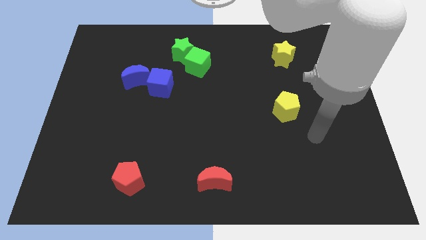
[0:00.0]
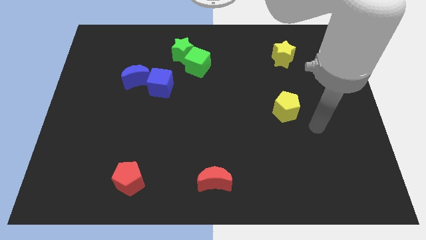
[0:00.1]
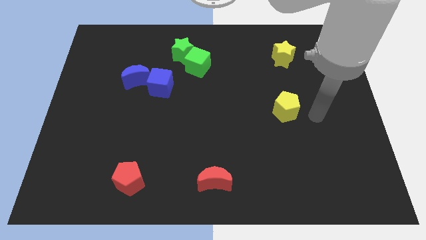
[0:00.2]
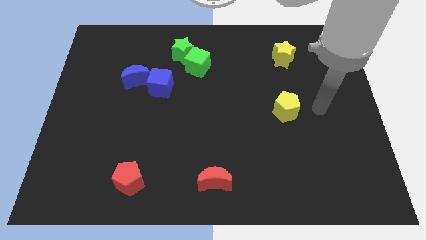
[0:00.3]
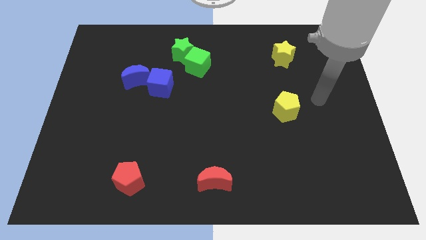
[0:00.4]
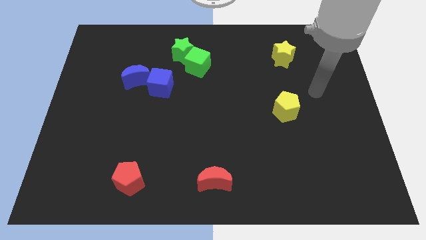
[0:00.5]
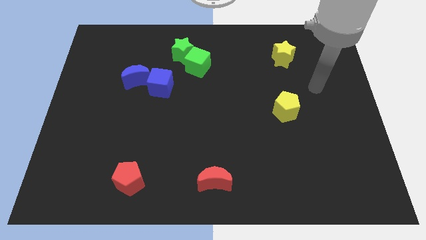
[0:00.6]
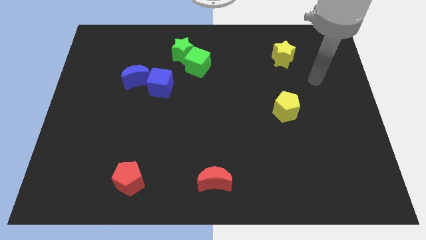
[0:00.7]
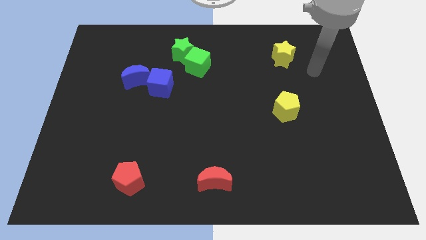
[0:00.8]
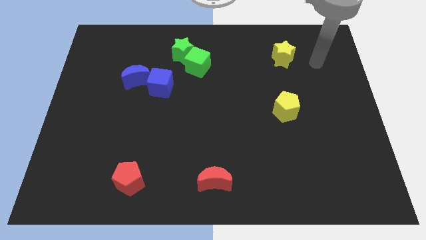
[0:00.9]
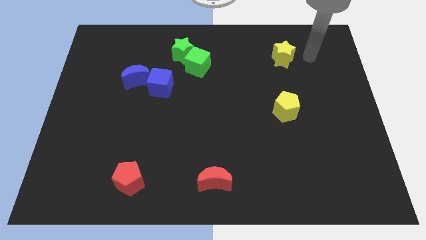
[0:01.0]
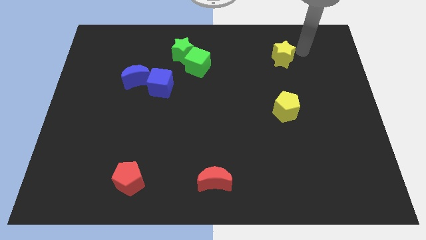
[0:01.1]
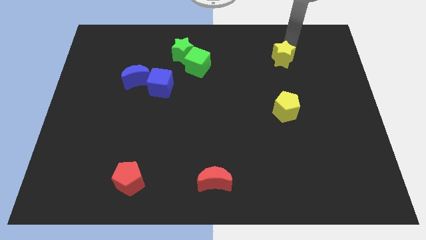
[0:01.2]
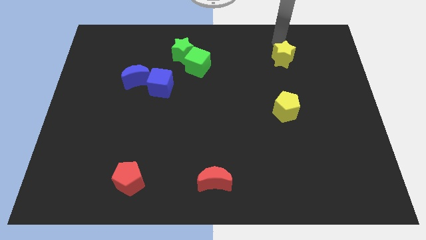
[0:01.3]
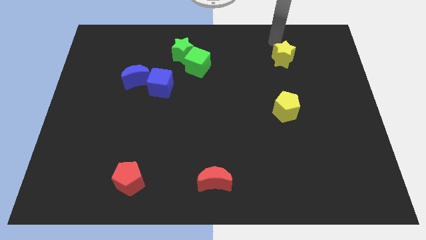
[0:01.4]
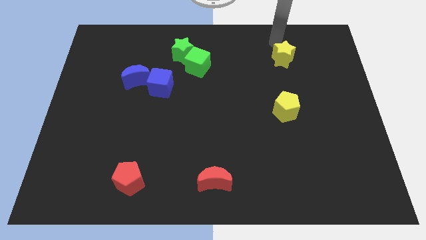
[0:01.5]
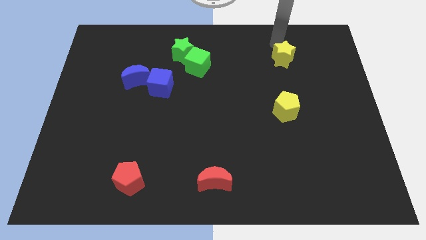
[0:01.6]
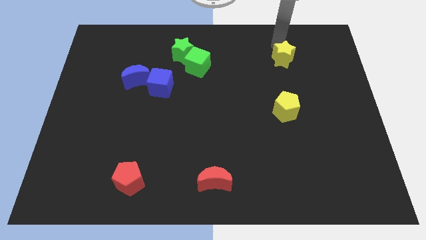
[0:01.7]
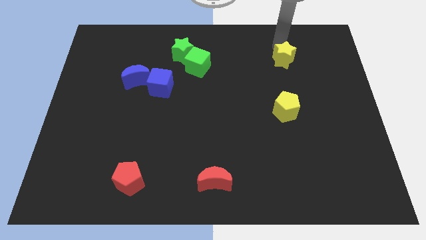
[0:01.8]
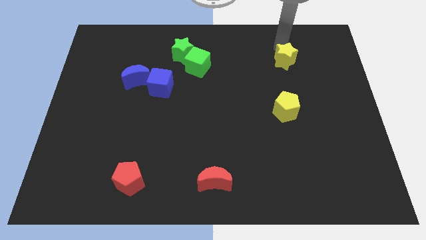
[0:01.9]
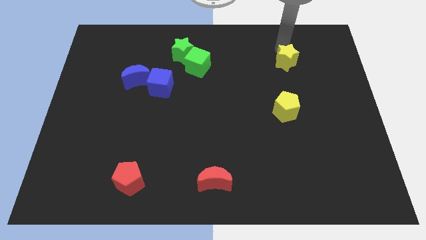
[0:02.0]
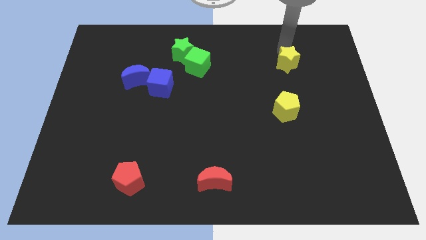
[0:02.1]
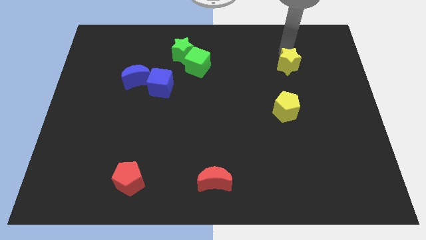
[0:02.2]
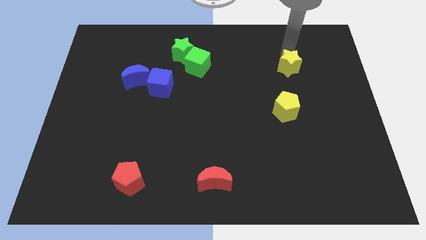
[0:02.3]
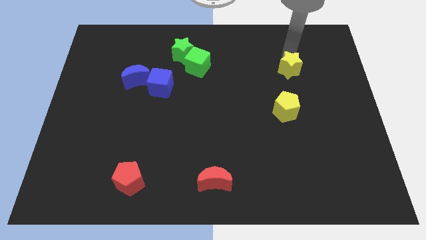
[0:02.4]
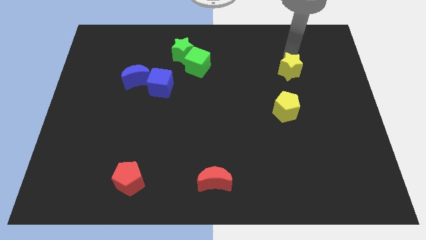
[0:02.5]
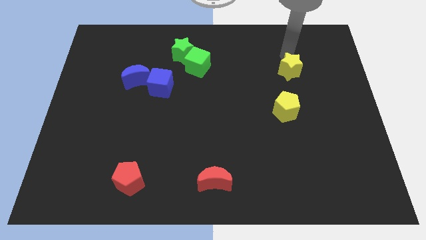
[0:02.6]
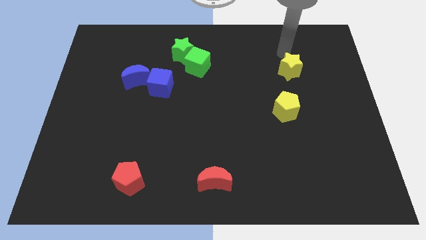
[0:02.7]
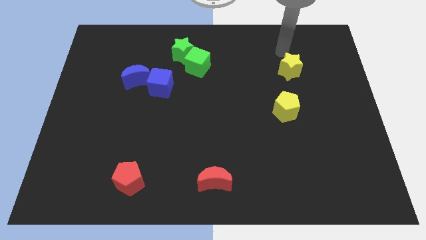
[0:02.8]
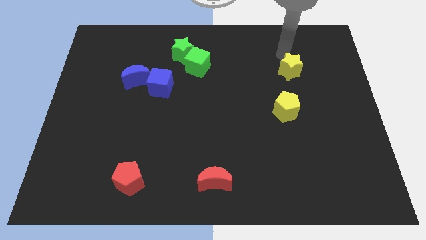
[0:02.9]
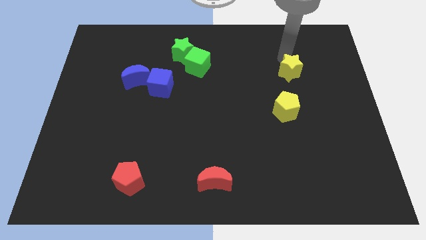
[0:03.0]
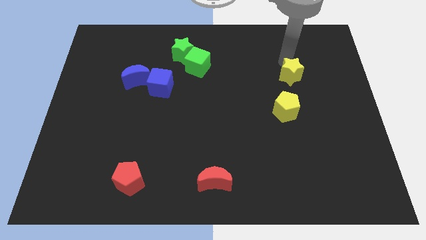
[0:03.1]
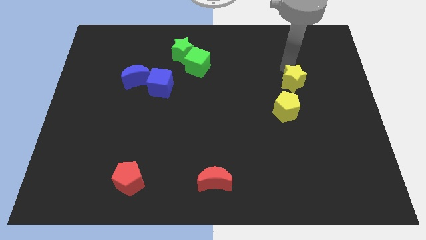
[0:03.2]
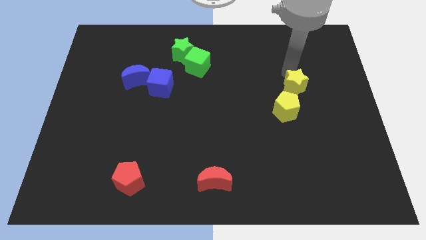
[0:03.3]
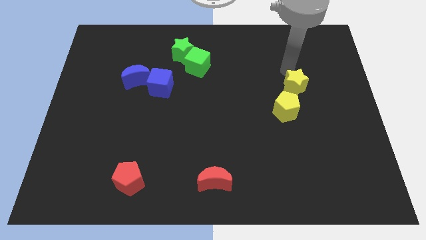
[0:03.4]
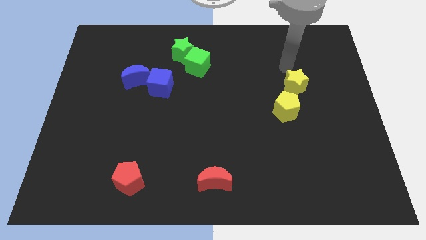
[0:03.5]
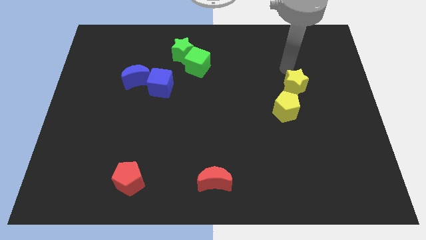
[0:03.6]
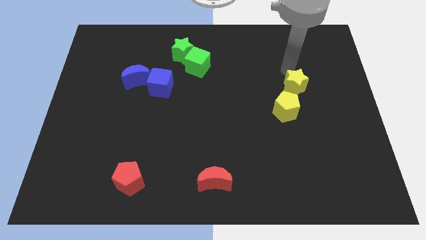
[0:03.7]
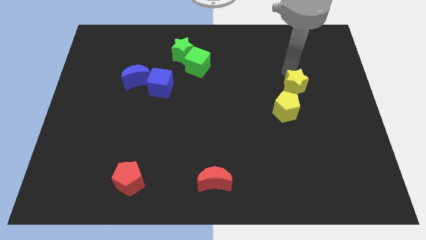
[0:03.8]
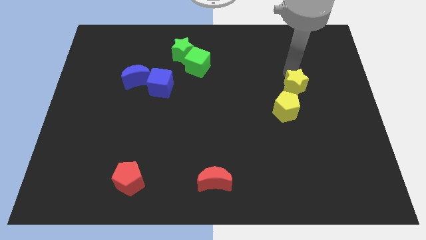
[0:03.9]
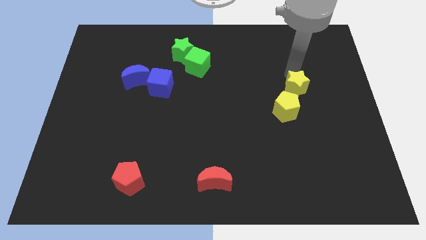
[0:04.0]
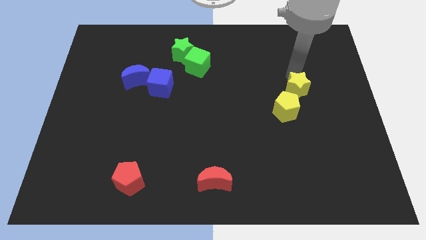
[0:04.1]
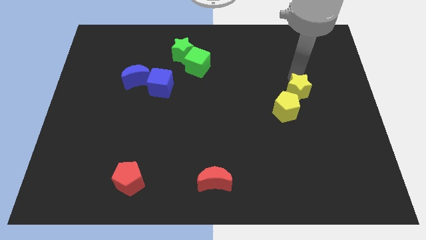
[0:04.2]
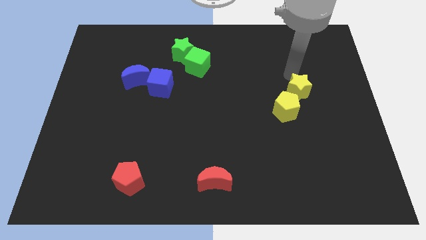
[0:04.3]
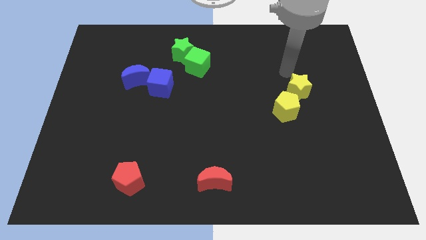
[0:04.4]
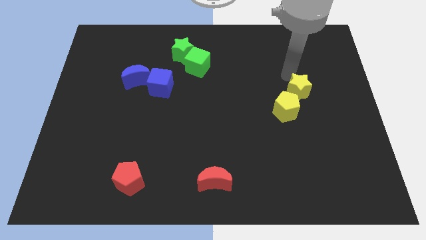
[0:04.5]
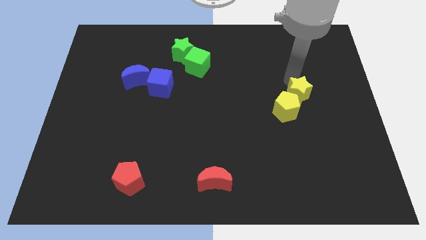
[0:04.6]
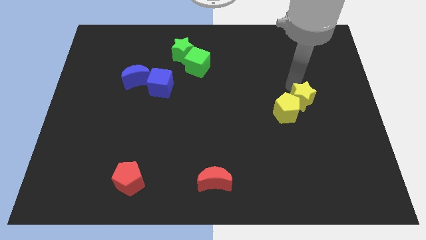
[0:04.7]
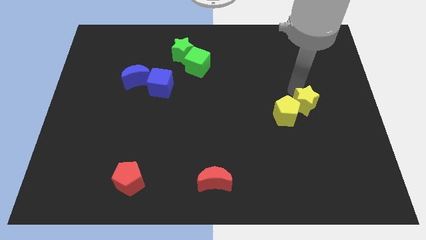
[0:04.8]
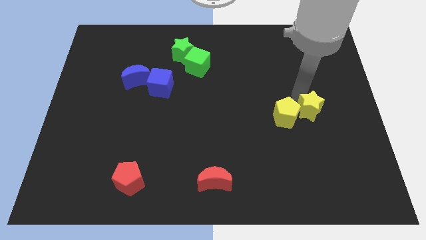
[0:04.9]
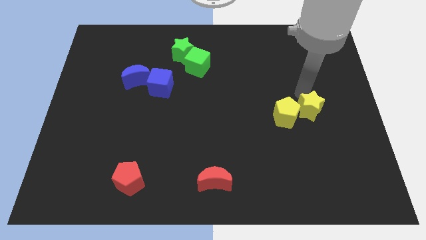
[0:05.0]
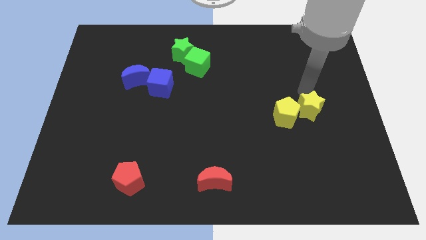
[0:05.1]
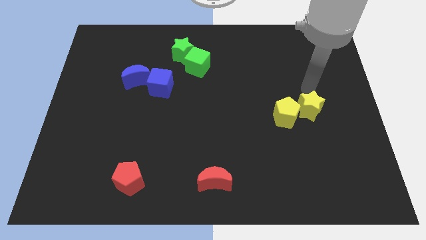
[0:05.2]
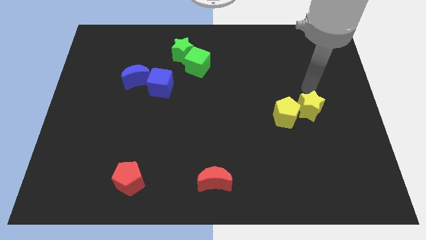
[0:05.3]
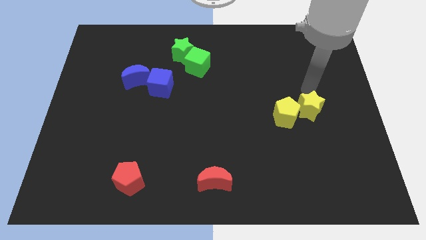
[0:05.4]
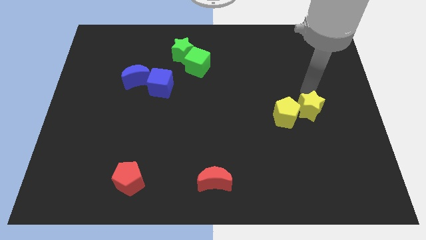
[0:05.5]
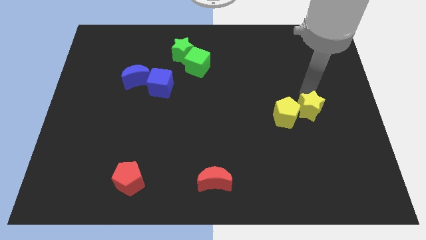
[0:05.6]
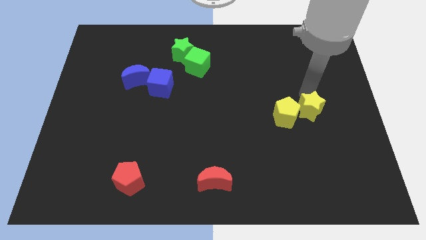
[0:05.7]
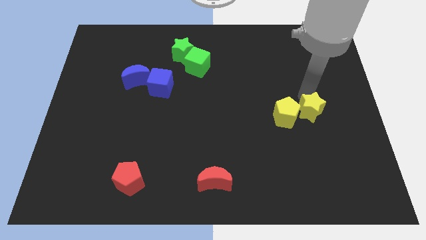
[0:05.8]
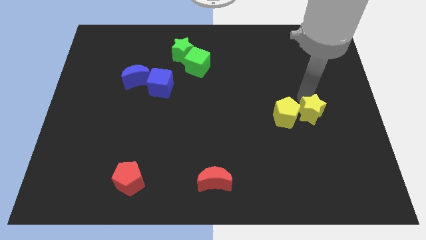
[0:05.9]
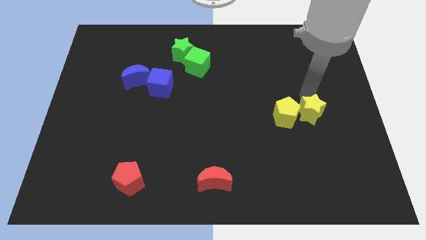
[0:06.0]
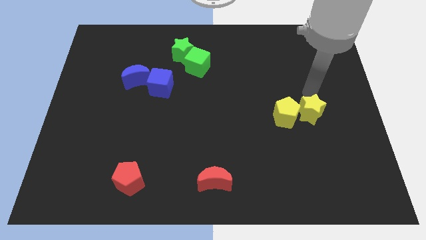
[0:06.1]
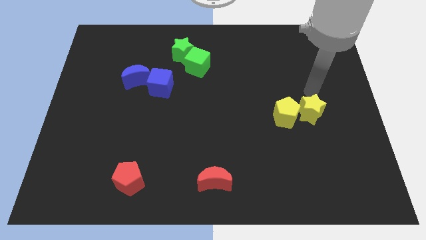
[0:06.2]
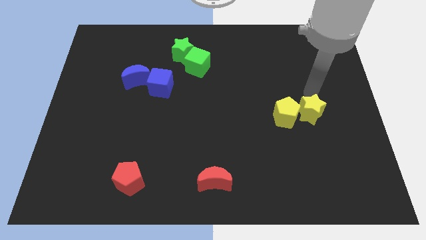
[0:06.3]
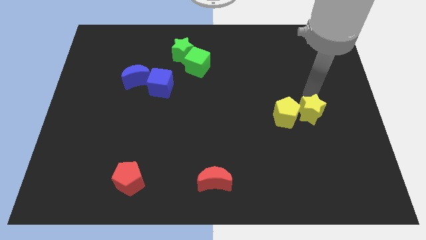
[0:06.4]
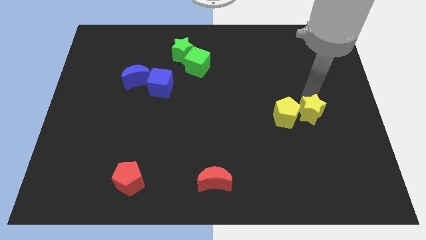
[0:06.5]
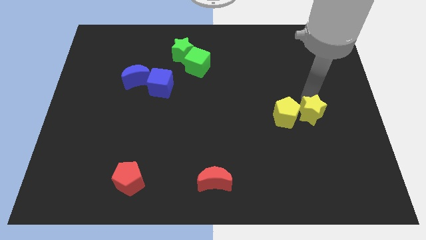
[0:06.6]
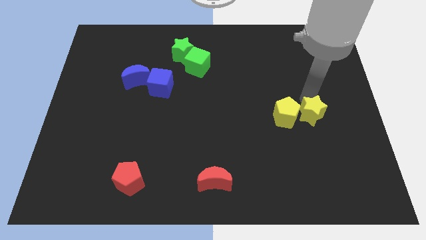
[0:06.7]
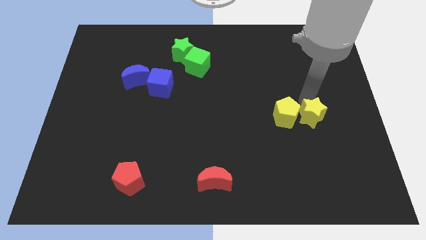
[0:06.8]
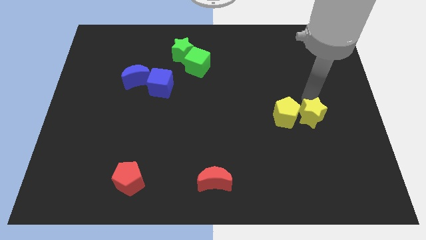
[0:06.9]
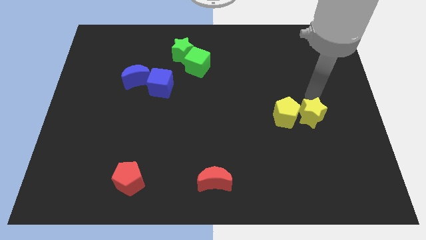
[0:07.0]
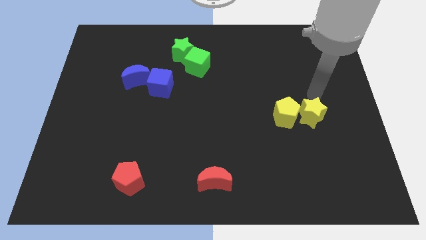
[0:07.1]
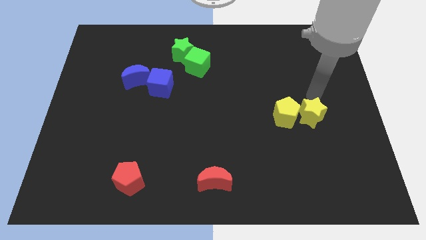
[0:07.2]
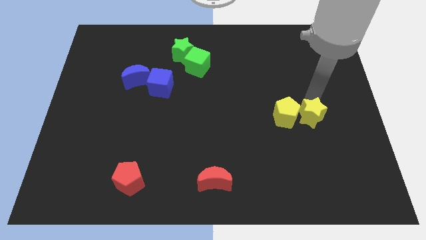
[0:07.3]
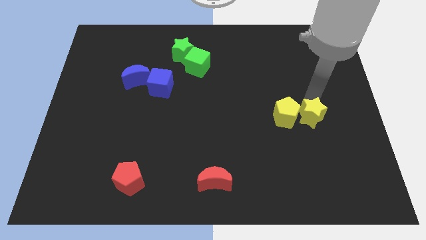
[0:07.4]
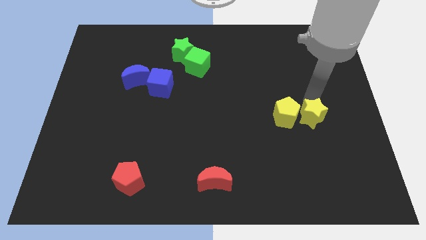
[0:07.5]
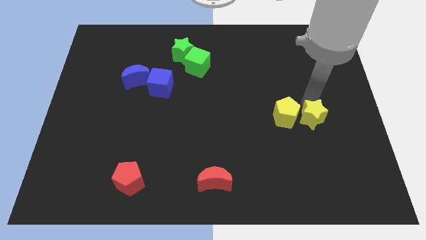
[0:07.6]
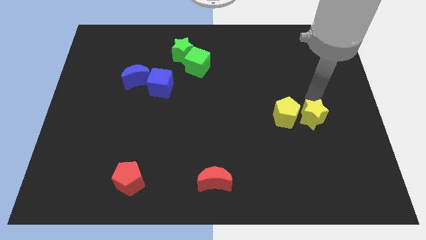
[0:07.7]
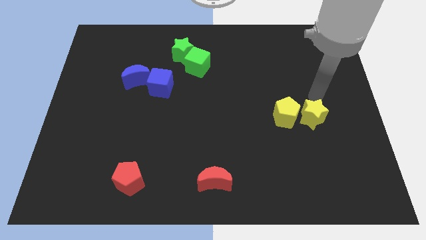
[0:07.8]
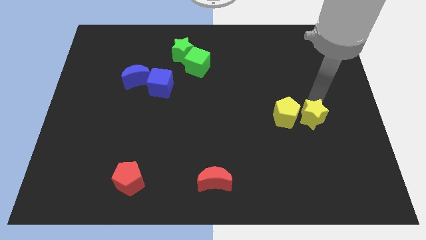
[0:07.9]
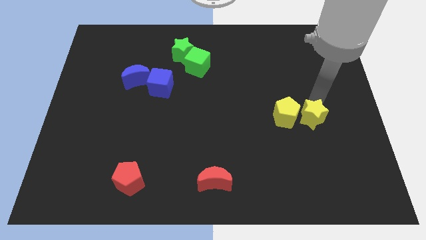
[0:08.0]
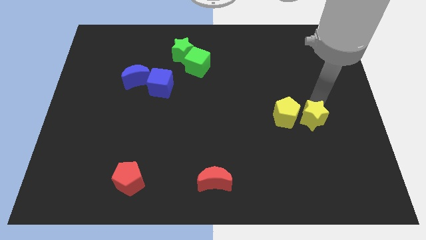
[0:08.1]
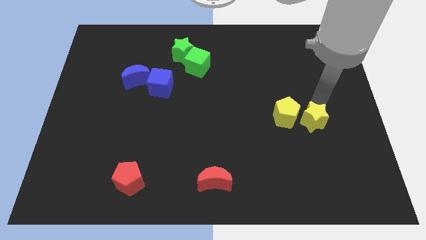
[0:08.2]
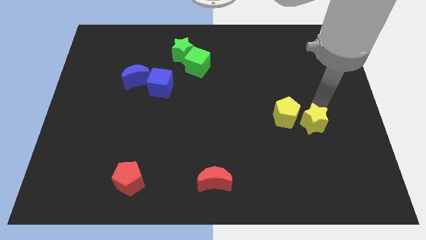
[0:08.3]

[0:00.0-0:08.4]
move the yellow star downwards
